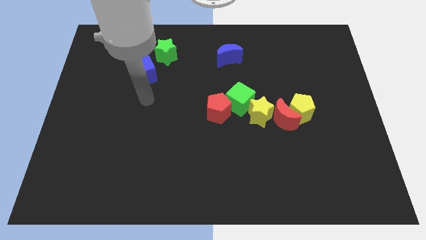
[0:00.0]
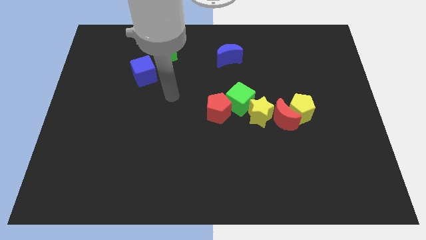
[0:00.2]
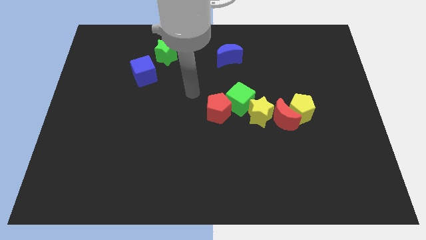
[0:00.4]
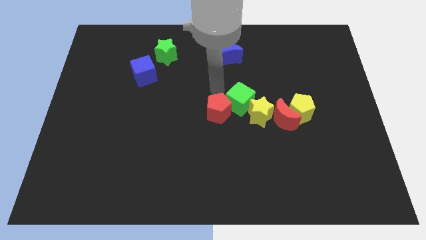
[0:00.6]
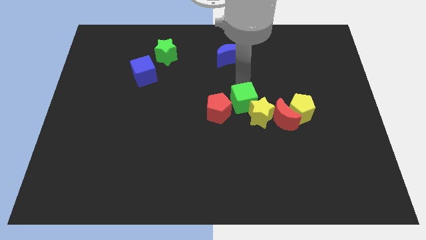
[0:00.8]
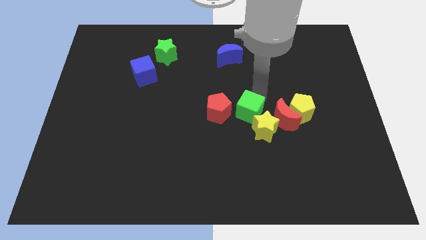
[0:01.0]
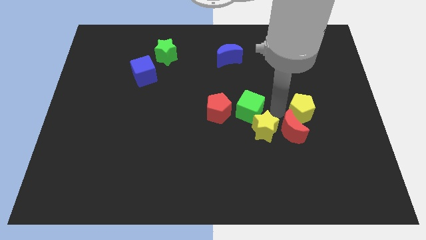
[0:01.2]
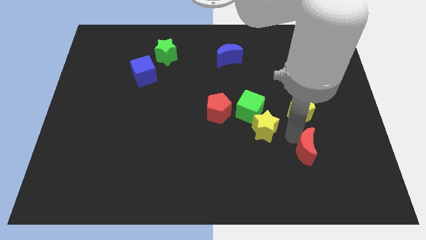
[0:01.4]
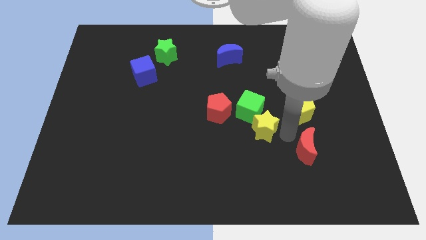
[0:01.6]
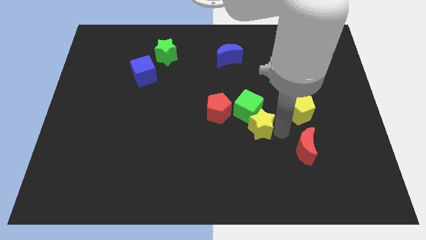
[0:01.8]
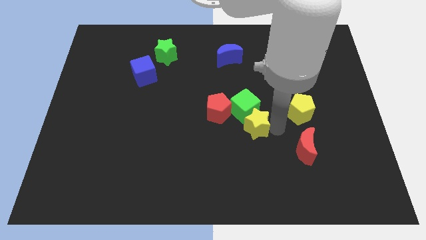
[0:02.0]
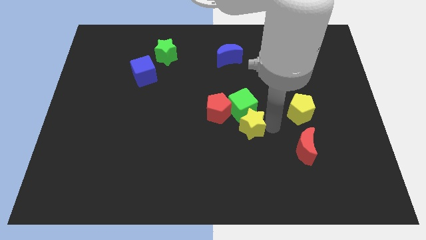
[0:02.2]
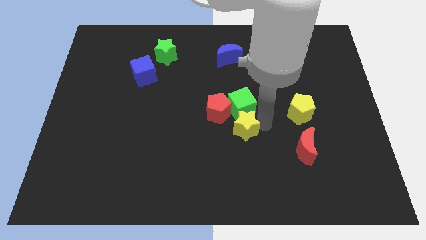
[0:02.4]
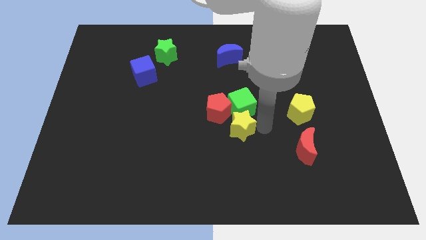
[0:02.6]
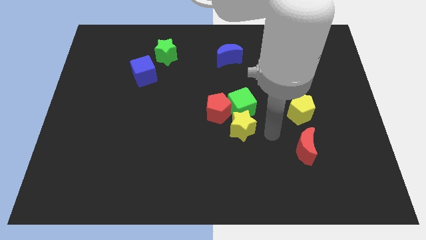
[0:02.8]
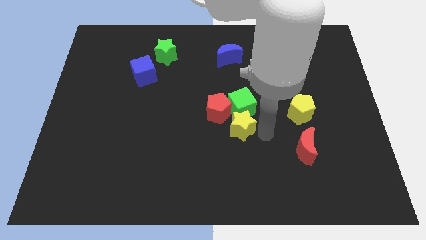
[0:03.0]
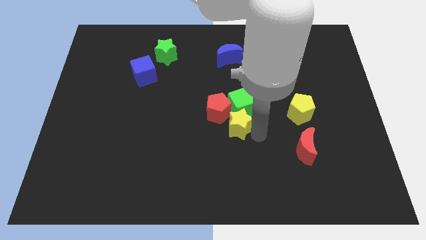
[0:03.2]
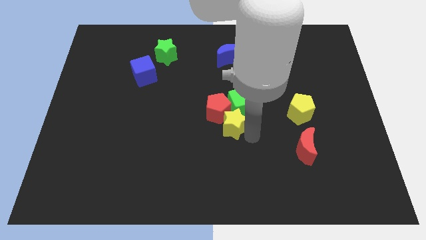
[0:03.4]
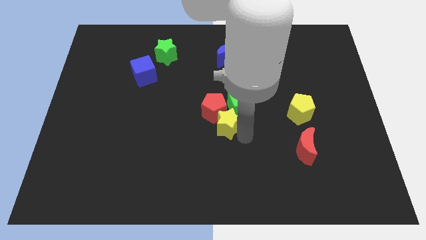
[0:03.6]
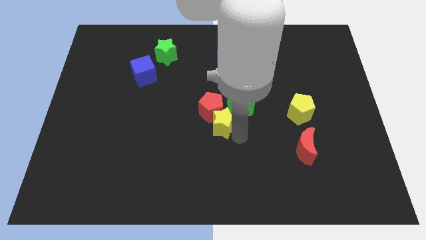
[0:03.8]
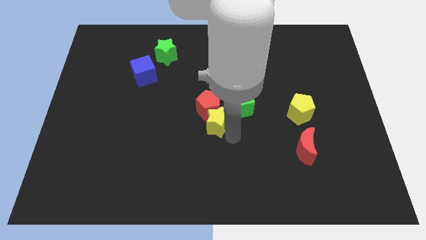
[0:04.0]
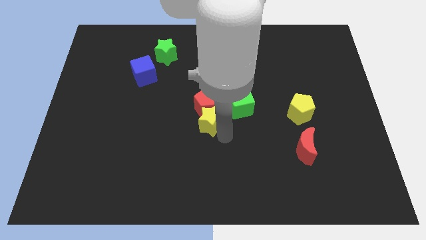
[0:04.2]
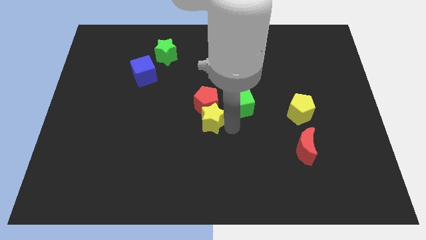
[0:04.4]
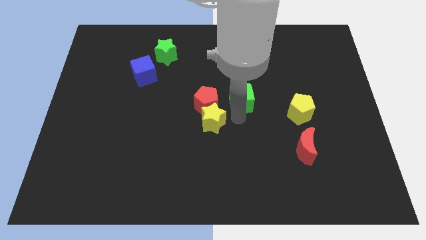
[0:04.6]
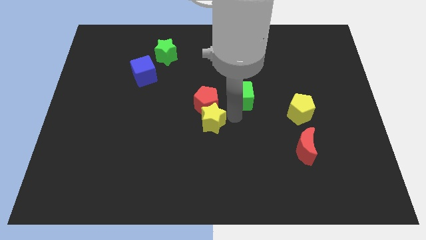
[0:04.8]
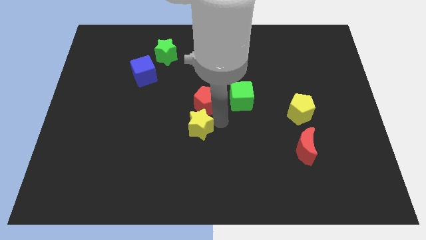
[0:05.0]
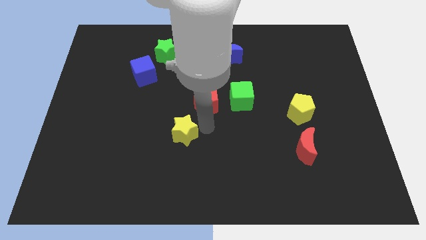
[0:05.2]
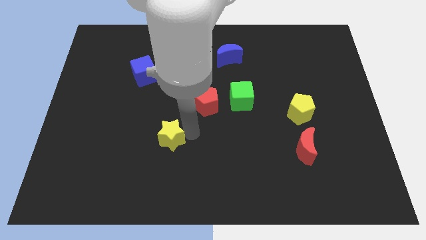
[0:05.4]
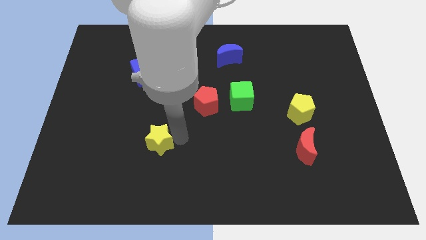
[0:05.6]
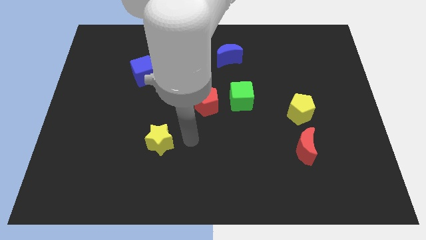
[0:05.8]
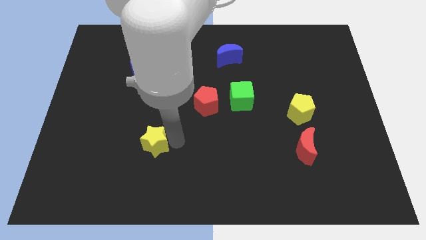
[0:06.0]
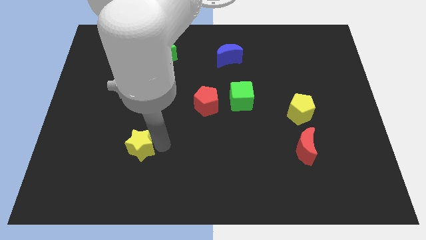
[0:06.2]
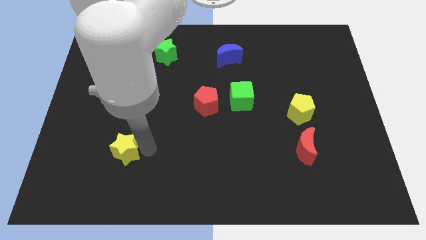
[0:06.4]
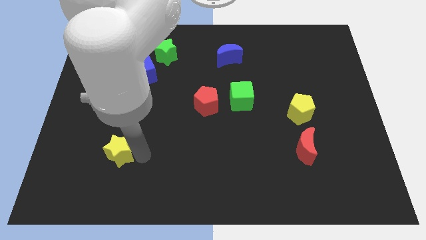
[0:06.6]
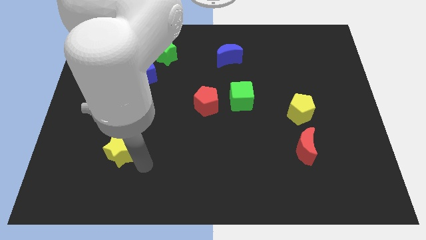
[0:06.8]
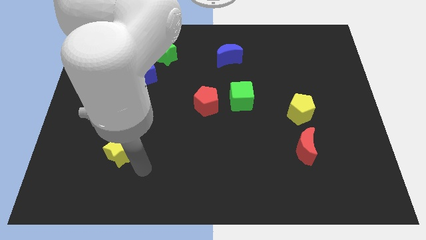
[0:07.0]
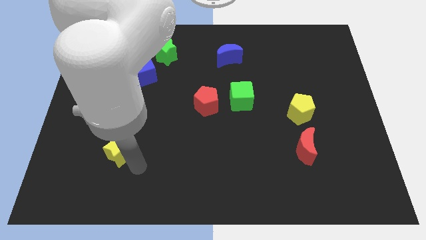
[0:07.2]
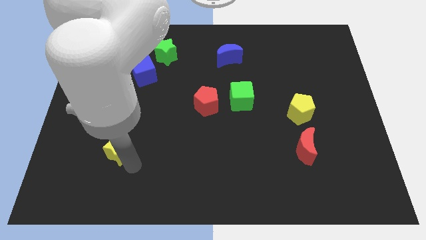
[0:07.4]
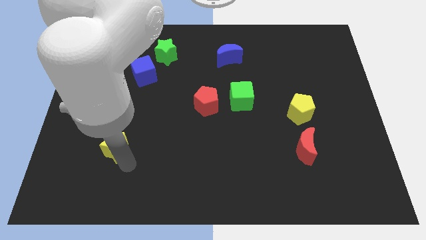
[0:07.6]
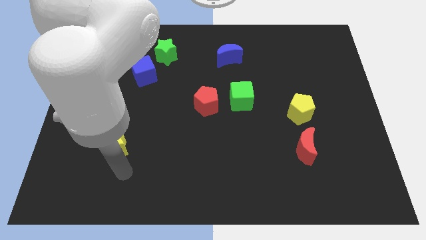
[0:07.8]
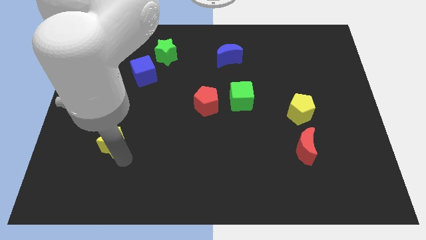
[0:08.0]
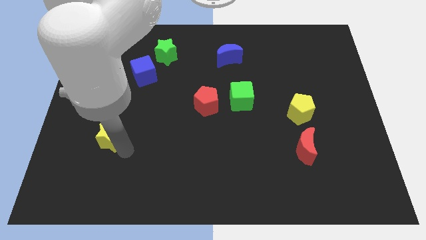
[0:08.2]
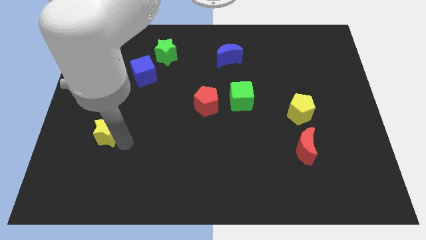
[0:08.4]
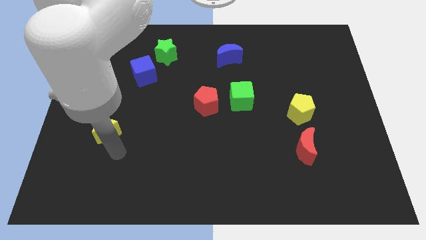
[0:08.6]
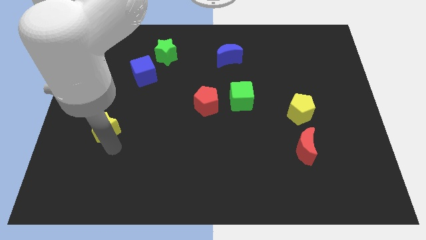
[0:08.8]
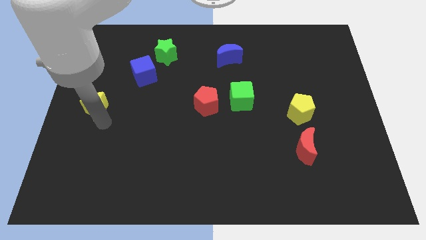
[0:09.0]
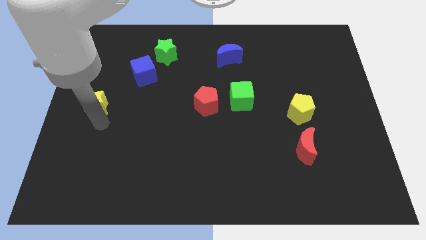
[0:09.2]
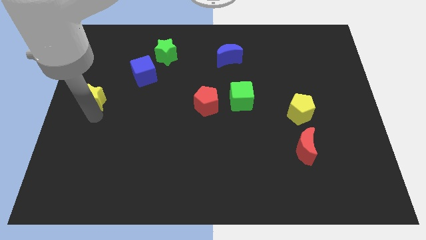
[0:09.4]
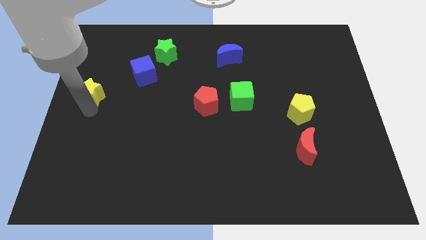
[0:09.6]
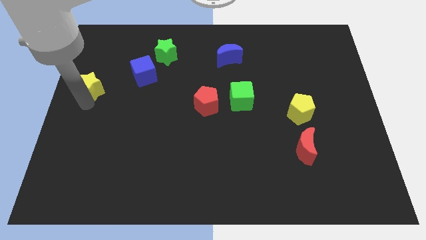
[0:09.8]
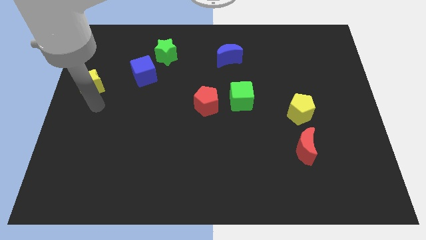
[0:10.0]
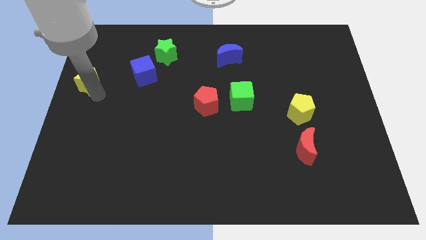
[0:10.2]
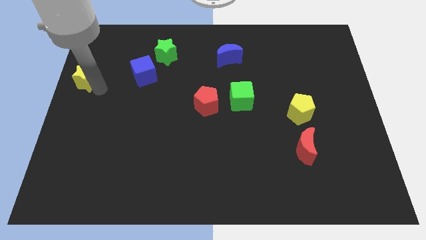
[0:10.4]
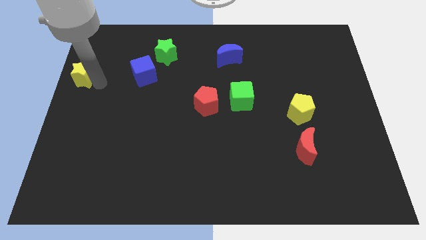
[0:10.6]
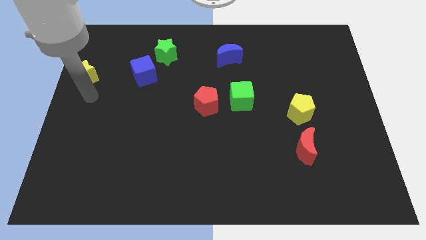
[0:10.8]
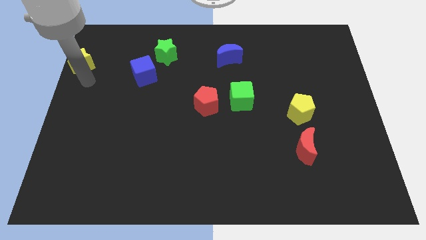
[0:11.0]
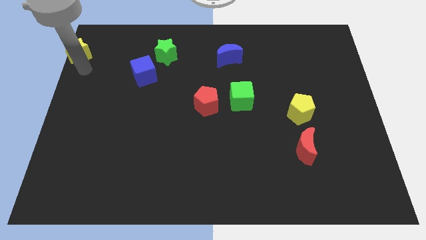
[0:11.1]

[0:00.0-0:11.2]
push the yellow star to the top left of the board

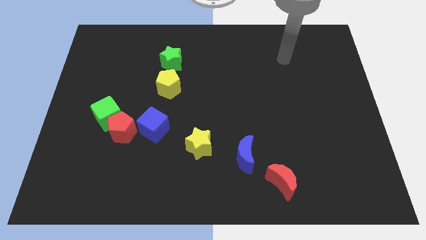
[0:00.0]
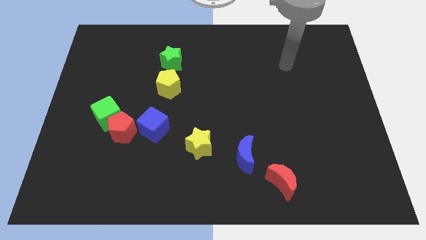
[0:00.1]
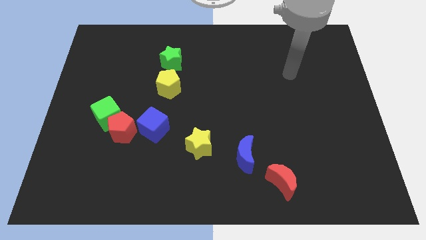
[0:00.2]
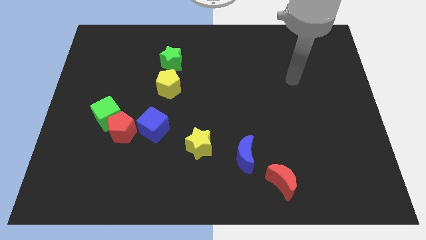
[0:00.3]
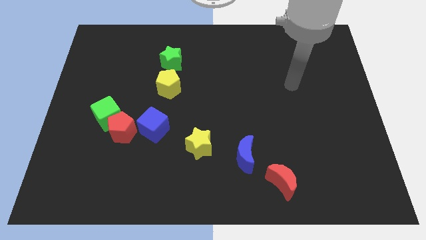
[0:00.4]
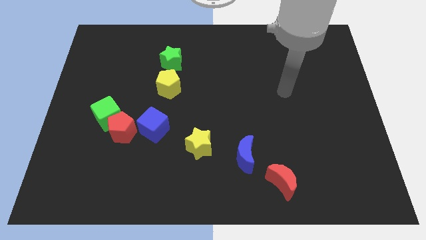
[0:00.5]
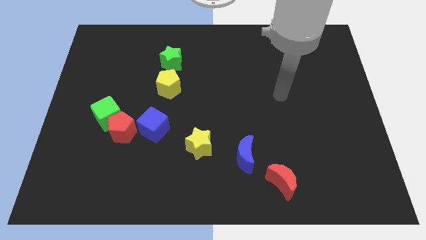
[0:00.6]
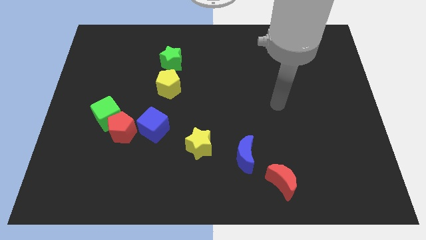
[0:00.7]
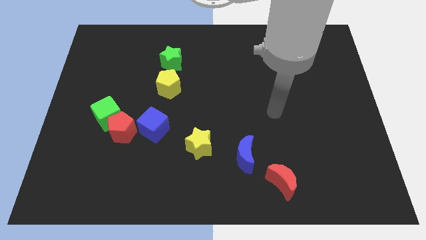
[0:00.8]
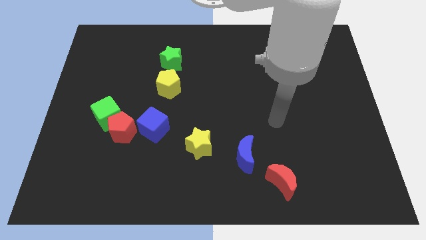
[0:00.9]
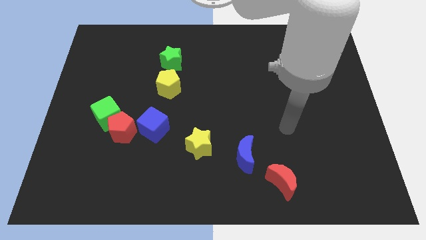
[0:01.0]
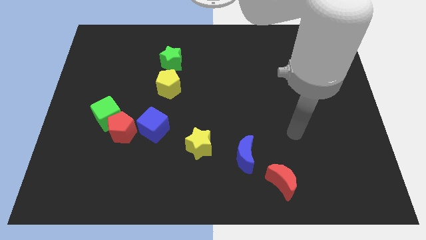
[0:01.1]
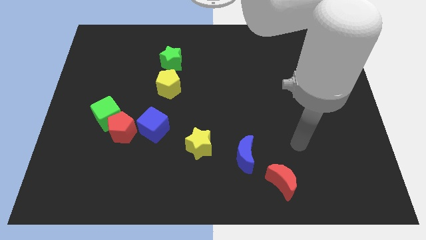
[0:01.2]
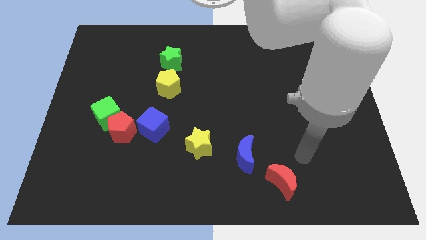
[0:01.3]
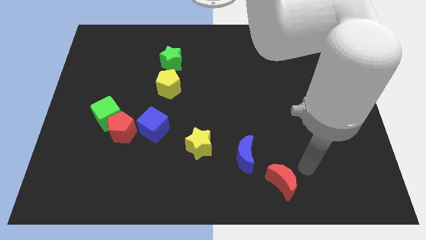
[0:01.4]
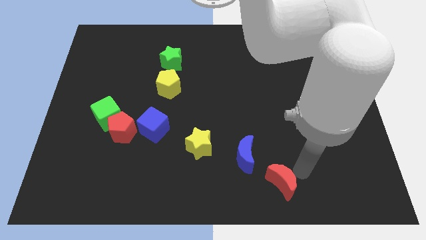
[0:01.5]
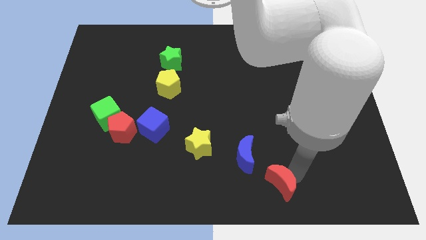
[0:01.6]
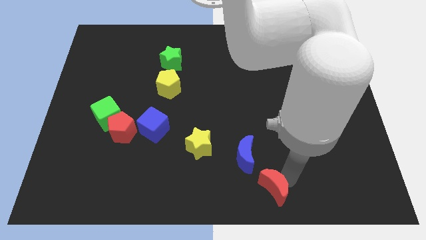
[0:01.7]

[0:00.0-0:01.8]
push the red moon to the bottom side
